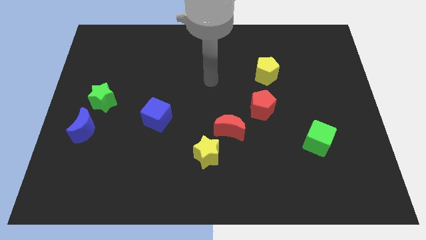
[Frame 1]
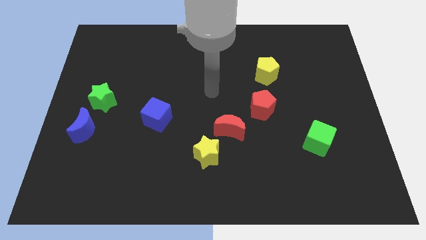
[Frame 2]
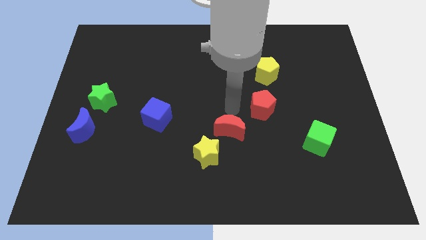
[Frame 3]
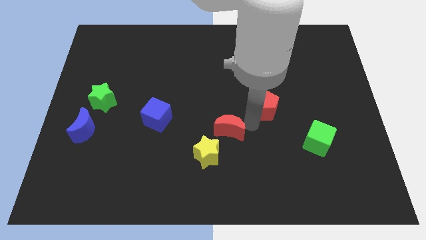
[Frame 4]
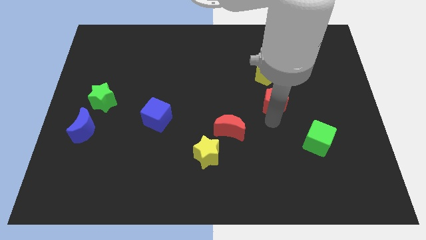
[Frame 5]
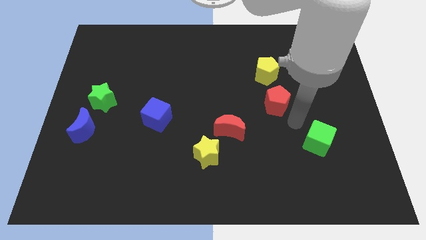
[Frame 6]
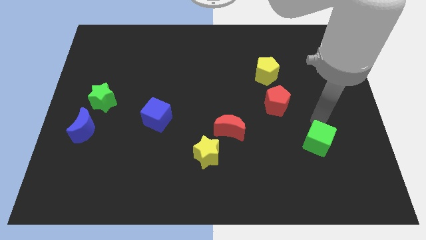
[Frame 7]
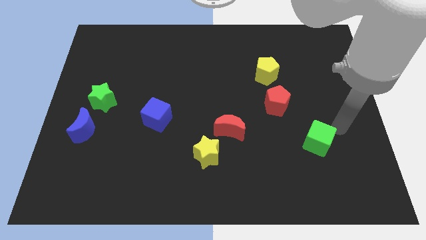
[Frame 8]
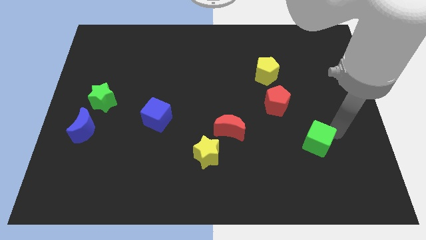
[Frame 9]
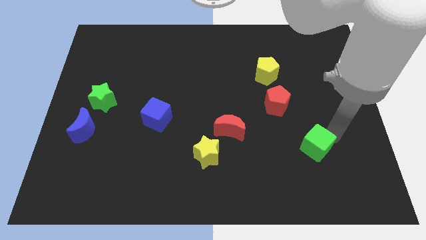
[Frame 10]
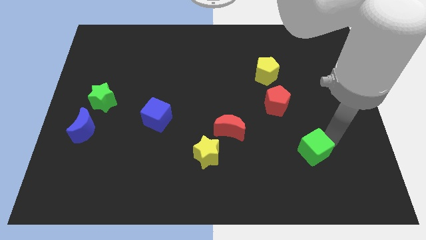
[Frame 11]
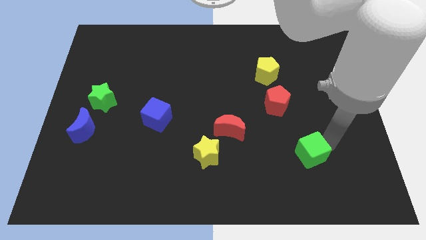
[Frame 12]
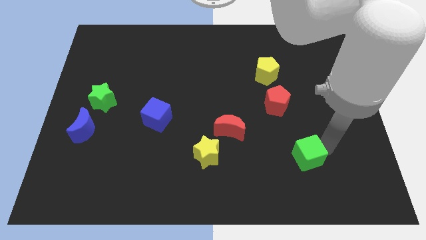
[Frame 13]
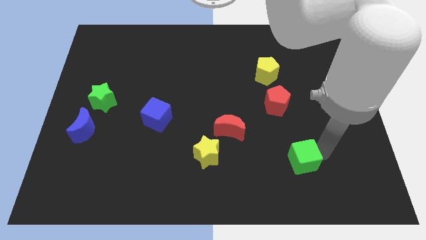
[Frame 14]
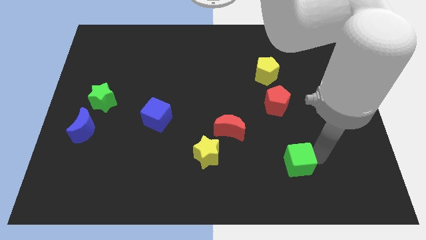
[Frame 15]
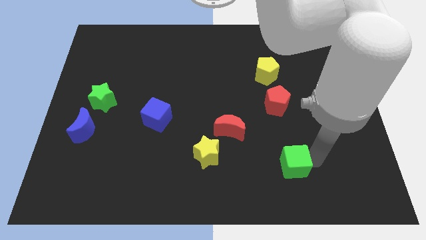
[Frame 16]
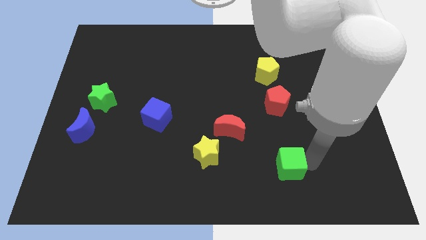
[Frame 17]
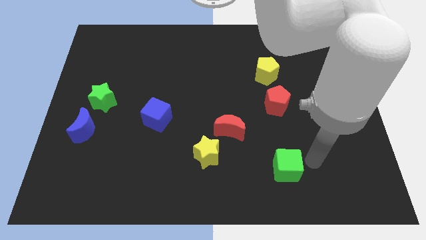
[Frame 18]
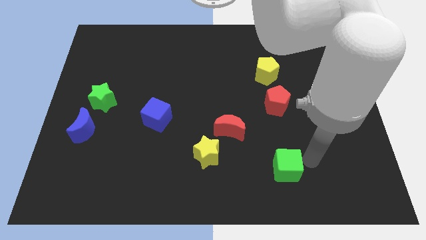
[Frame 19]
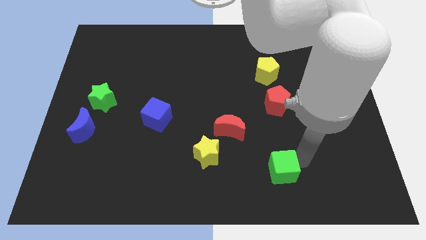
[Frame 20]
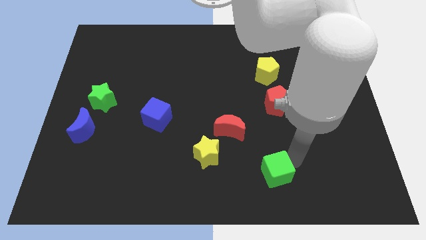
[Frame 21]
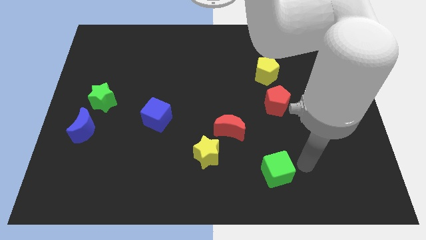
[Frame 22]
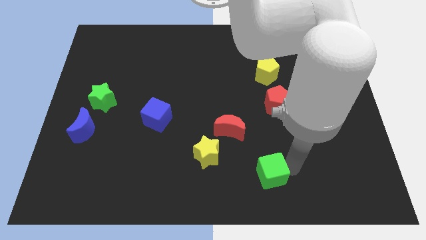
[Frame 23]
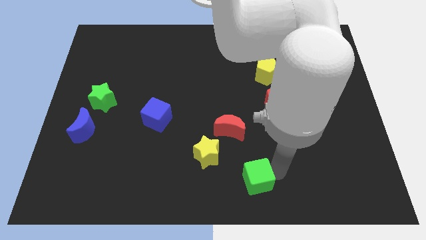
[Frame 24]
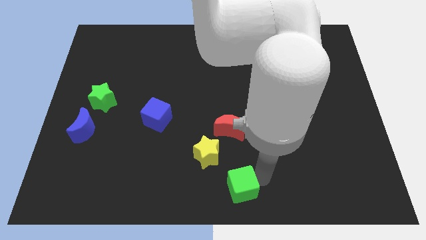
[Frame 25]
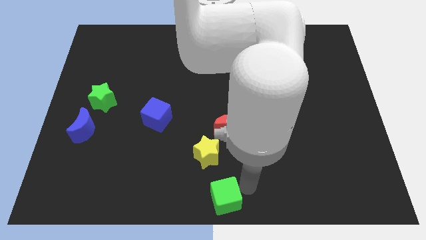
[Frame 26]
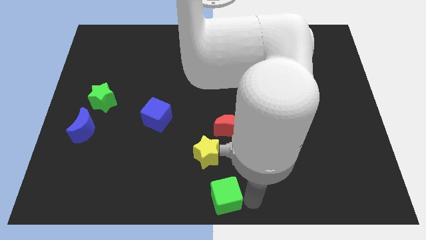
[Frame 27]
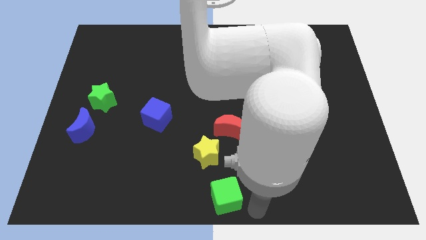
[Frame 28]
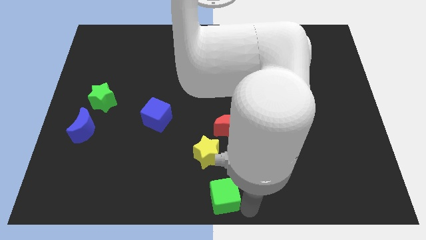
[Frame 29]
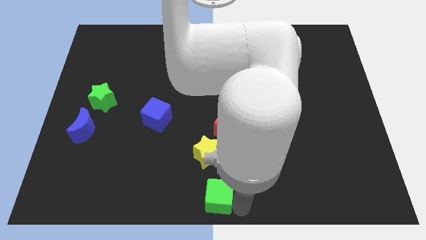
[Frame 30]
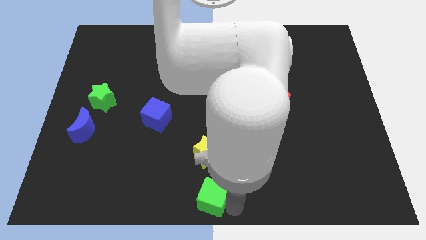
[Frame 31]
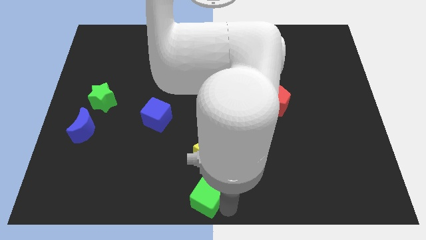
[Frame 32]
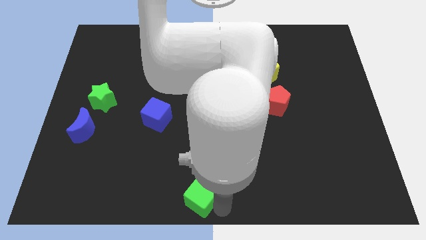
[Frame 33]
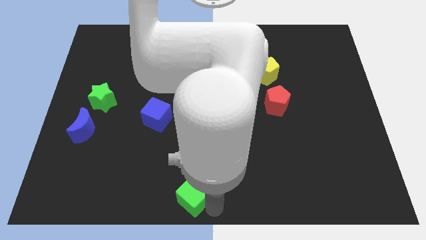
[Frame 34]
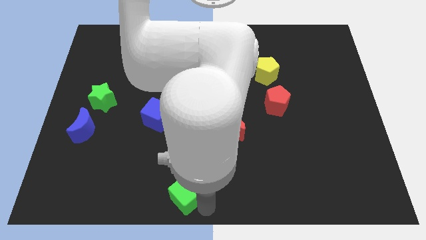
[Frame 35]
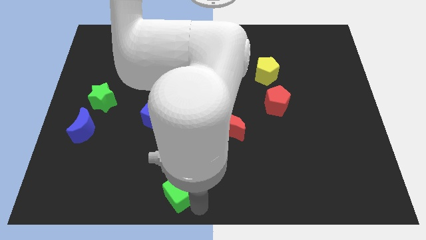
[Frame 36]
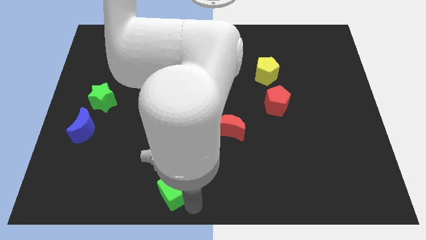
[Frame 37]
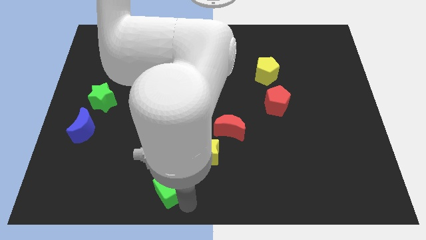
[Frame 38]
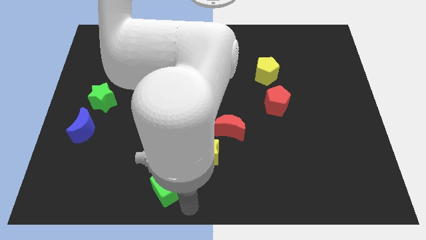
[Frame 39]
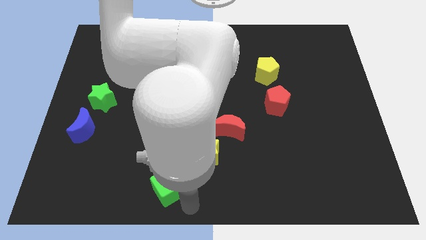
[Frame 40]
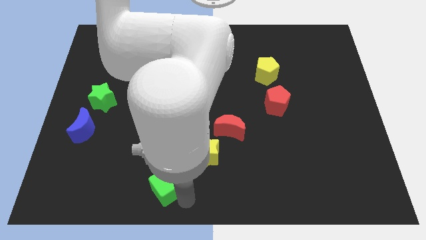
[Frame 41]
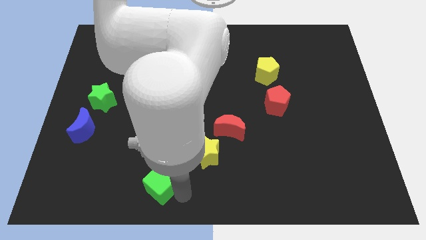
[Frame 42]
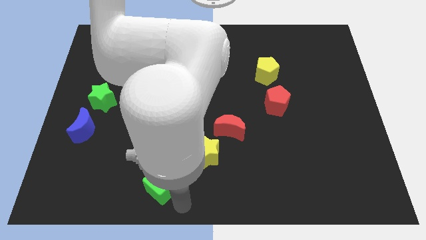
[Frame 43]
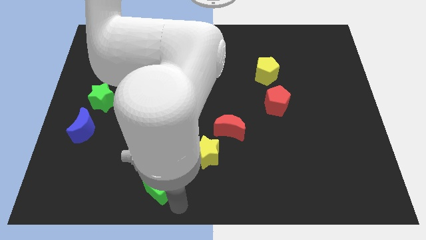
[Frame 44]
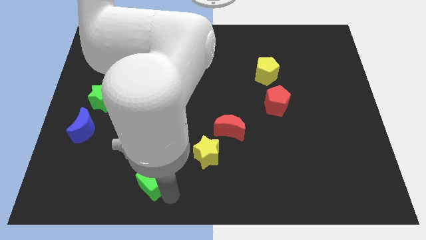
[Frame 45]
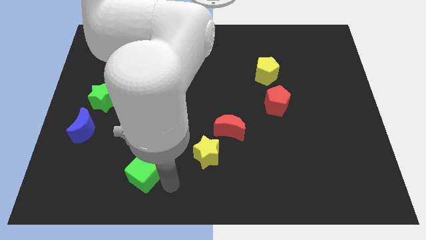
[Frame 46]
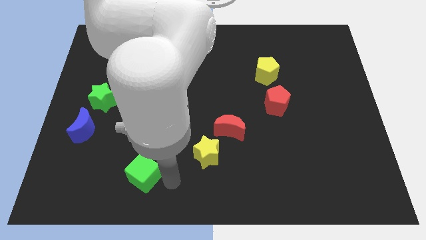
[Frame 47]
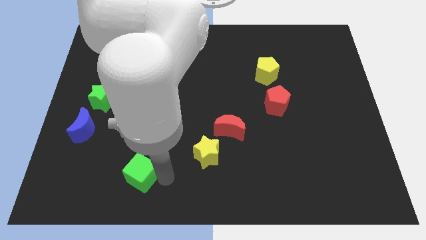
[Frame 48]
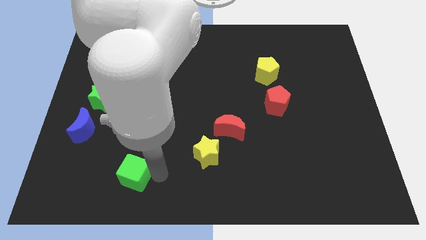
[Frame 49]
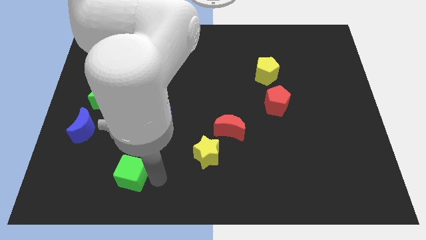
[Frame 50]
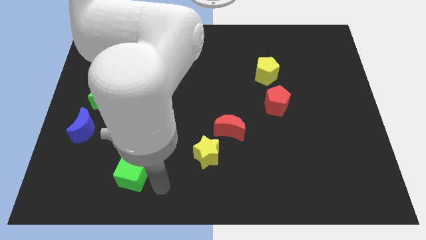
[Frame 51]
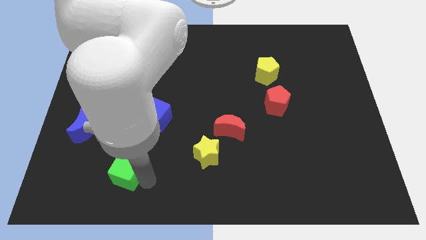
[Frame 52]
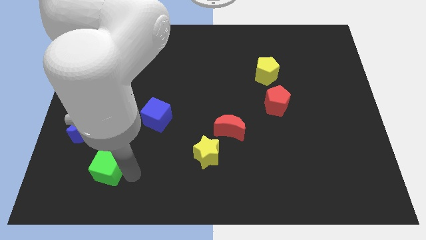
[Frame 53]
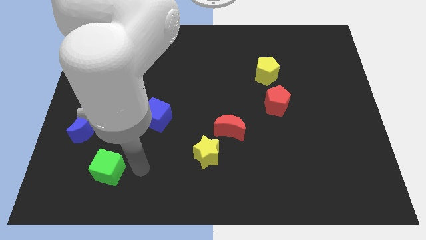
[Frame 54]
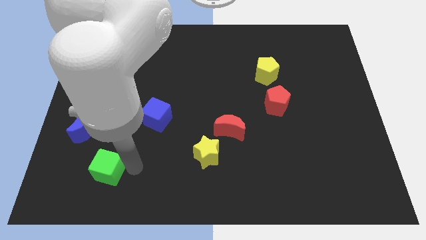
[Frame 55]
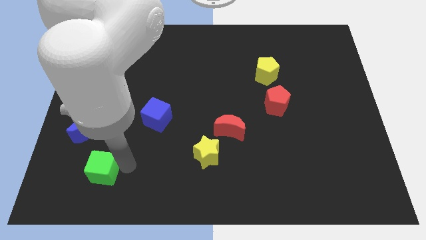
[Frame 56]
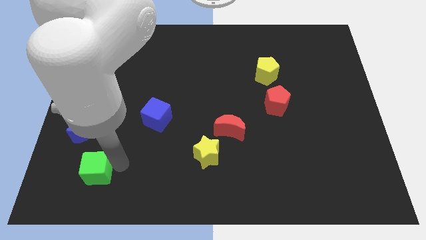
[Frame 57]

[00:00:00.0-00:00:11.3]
slide the green cube below the blue moon
